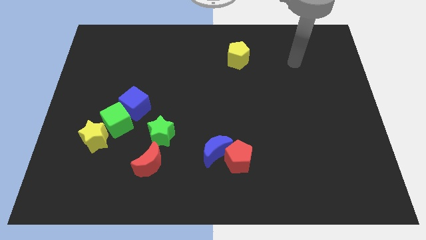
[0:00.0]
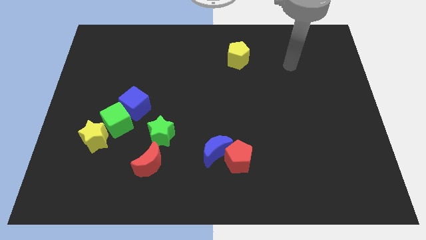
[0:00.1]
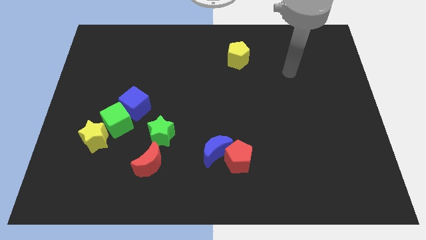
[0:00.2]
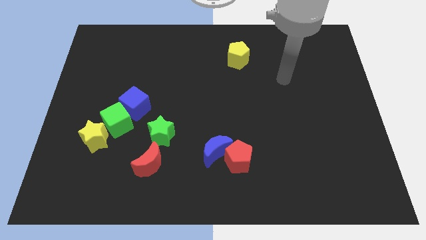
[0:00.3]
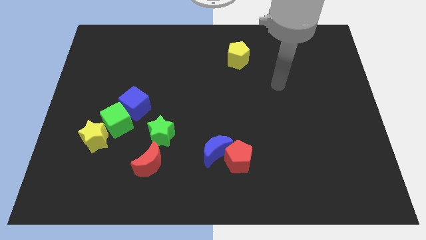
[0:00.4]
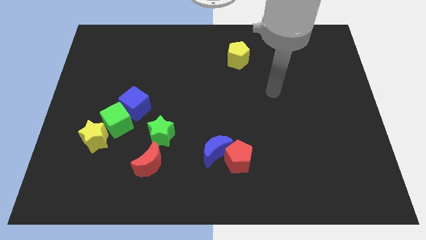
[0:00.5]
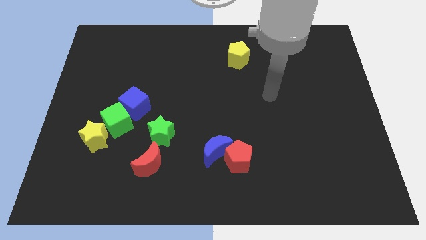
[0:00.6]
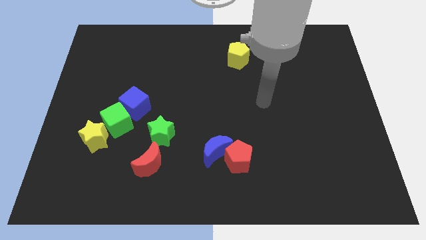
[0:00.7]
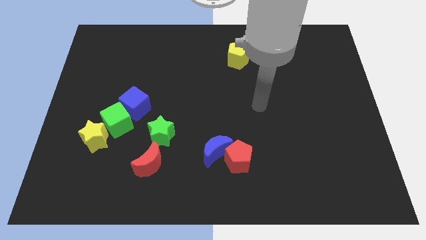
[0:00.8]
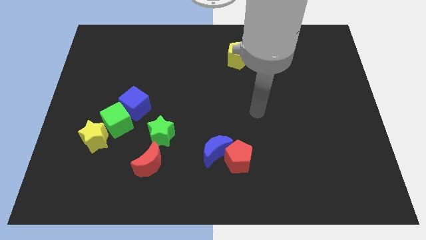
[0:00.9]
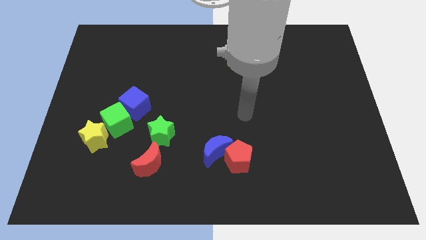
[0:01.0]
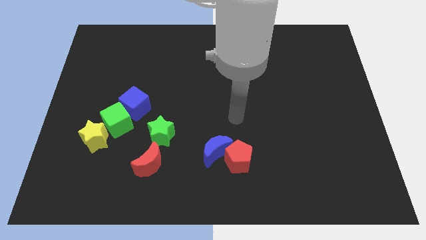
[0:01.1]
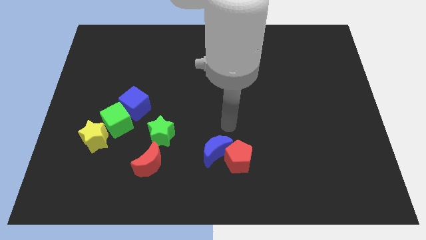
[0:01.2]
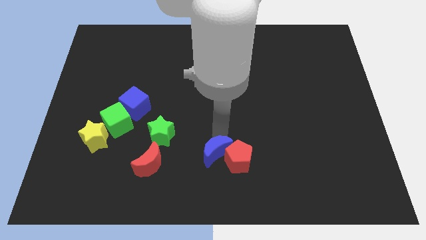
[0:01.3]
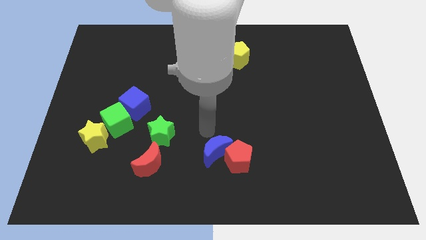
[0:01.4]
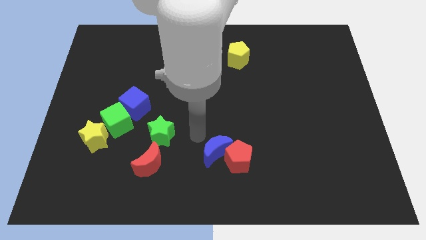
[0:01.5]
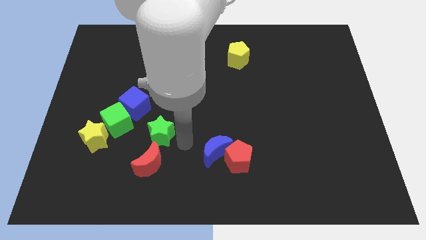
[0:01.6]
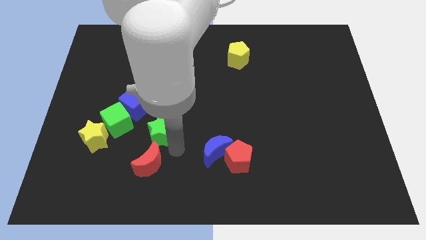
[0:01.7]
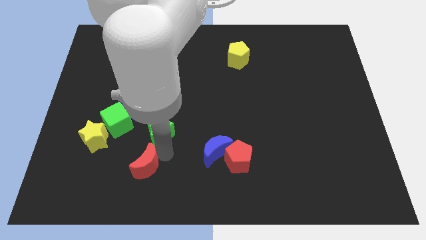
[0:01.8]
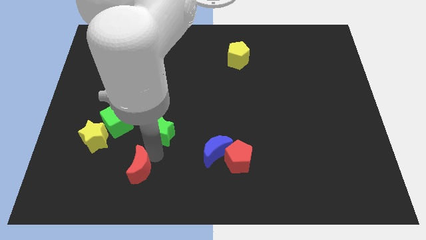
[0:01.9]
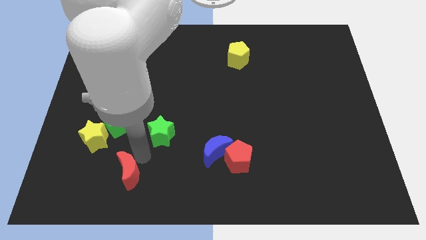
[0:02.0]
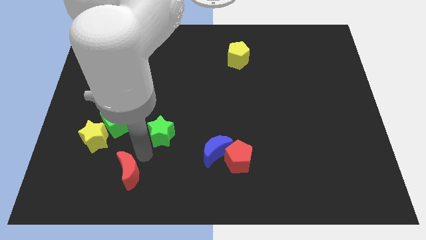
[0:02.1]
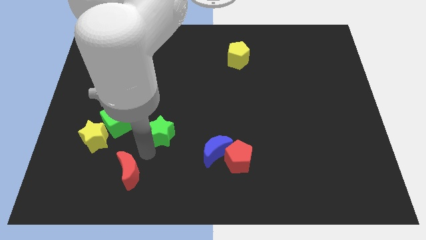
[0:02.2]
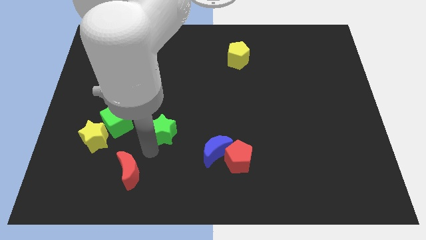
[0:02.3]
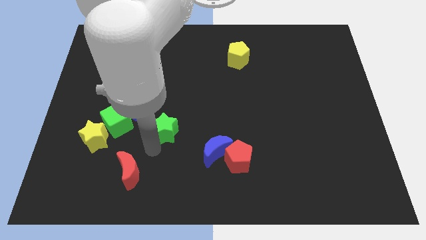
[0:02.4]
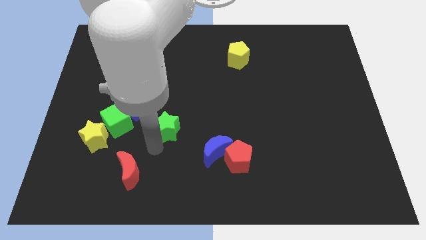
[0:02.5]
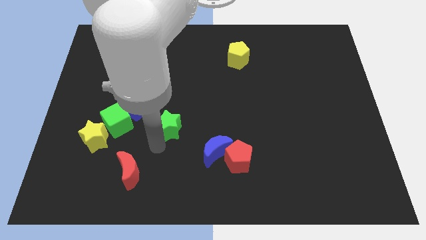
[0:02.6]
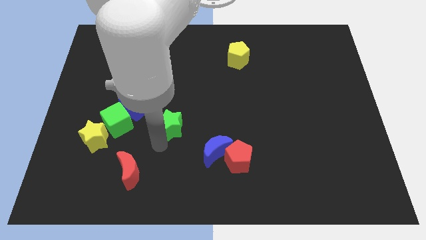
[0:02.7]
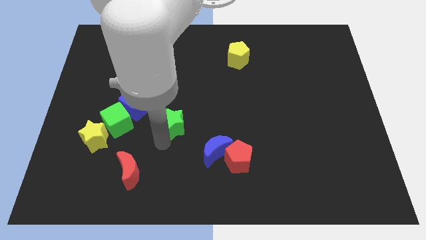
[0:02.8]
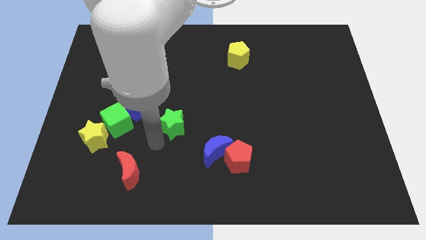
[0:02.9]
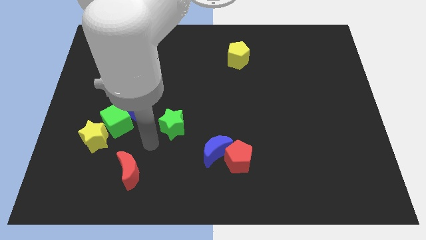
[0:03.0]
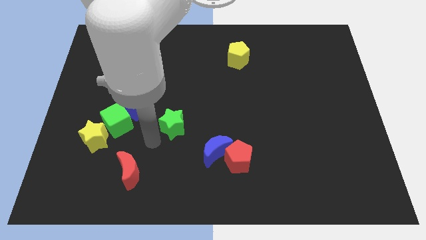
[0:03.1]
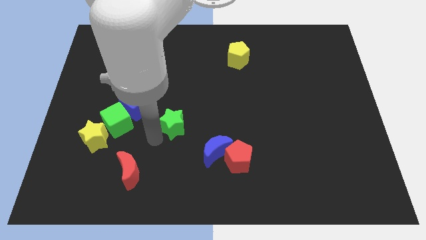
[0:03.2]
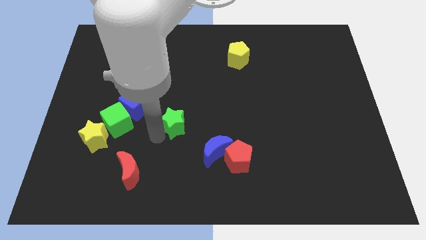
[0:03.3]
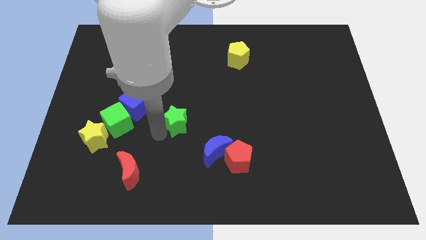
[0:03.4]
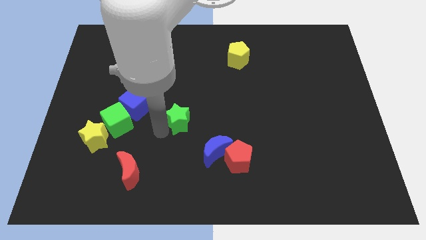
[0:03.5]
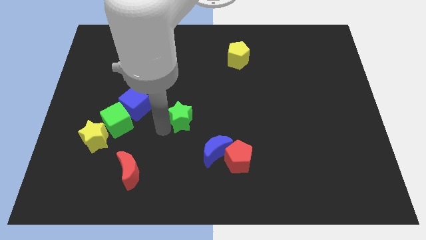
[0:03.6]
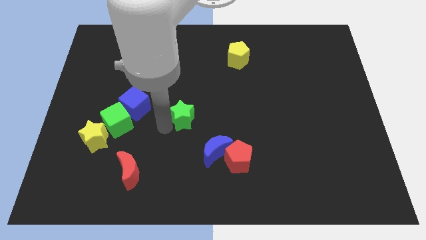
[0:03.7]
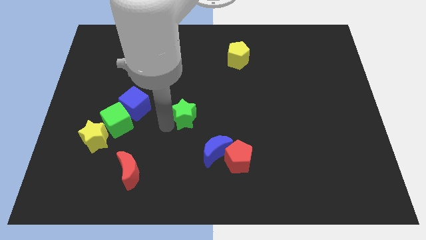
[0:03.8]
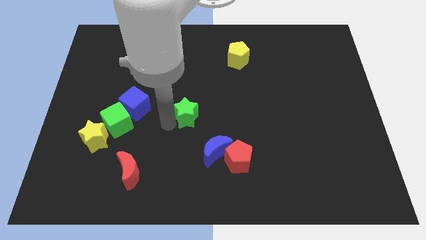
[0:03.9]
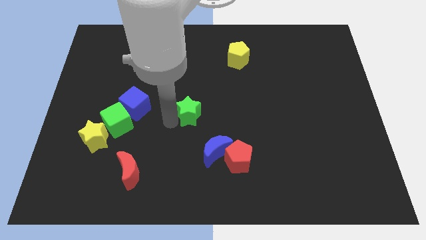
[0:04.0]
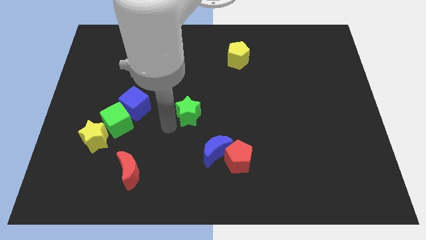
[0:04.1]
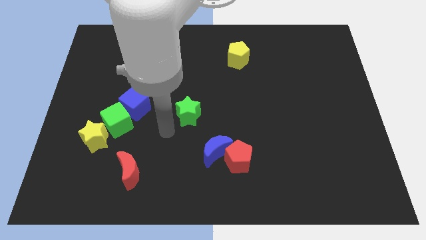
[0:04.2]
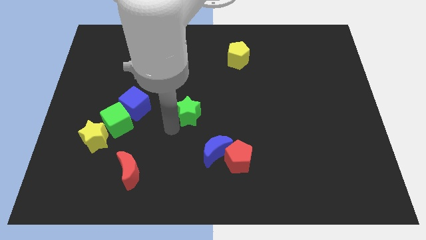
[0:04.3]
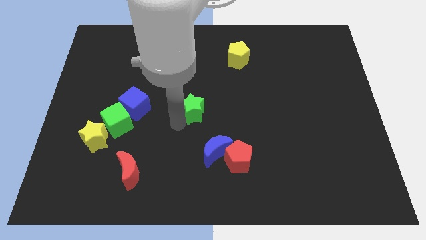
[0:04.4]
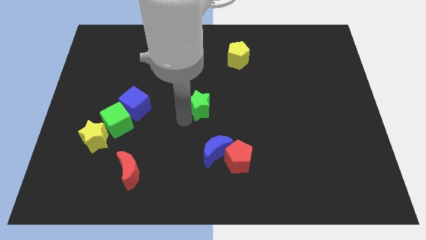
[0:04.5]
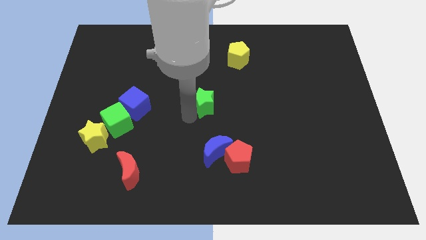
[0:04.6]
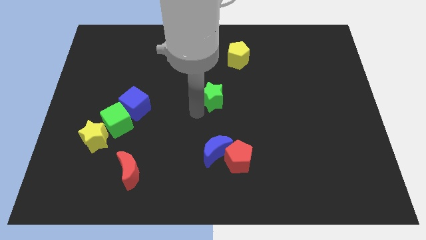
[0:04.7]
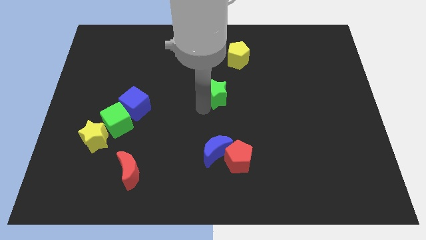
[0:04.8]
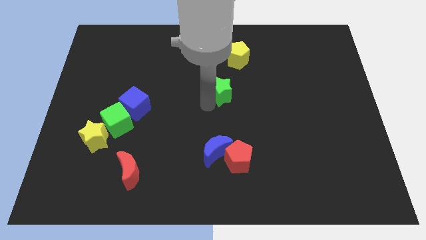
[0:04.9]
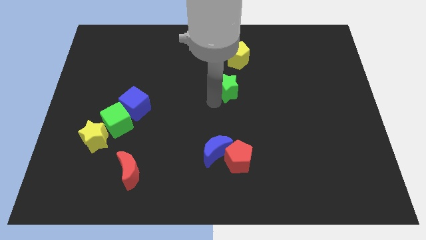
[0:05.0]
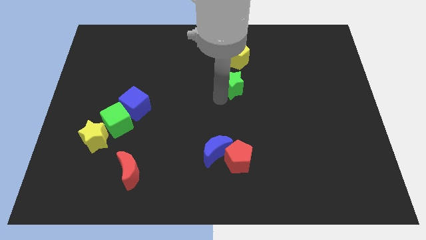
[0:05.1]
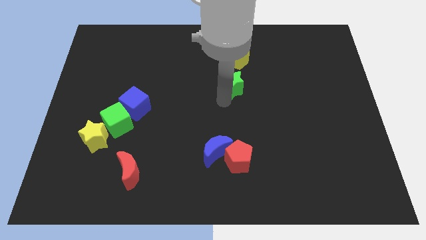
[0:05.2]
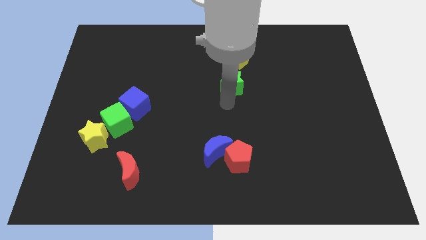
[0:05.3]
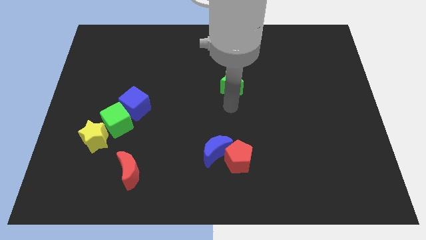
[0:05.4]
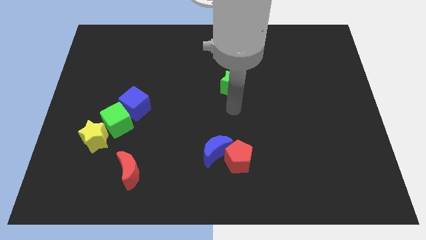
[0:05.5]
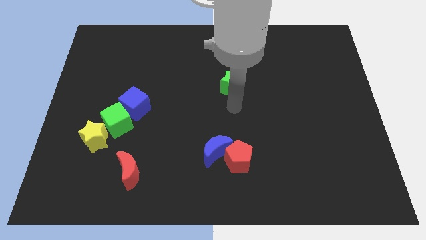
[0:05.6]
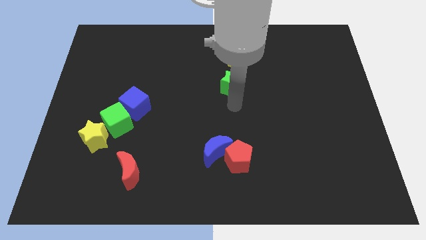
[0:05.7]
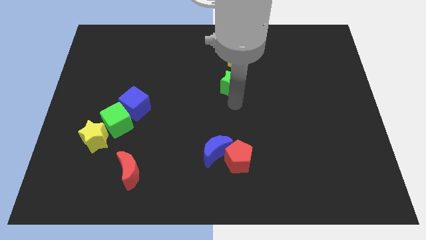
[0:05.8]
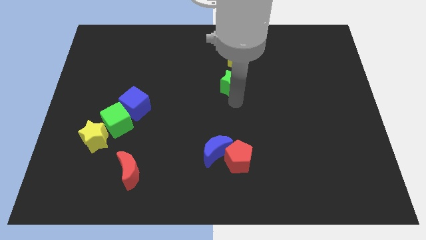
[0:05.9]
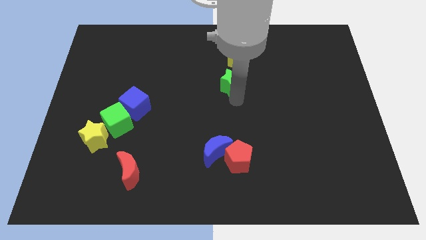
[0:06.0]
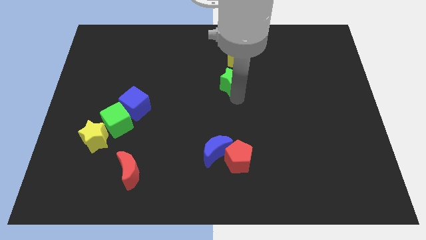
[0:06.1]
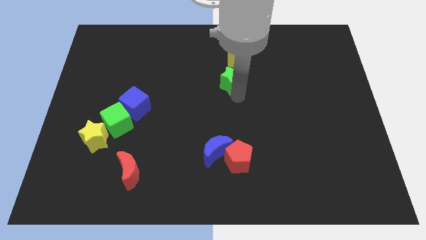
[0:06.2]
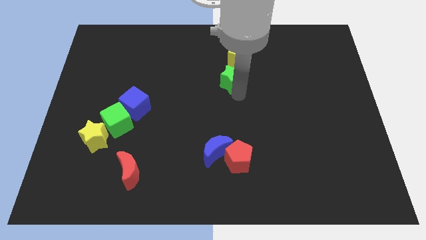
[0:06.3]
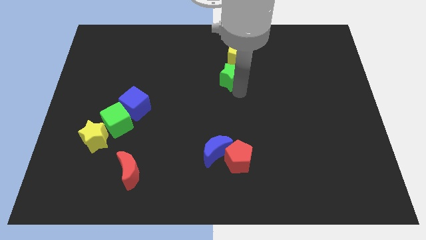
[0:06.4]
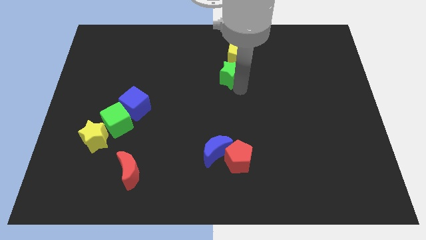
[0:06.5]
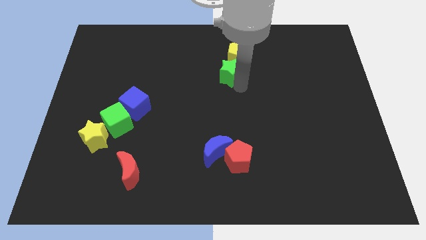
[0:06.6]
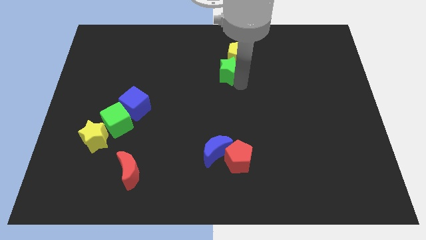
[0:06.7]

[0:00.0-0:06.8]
move the green star to the yellow pentagon
